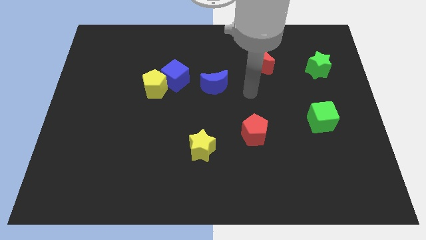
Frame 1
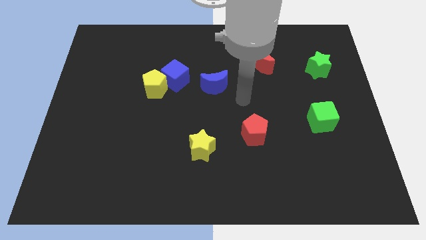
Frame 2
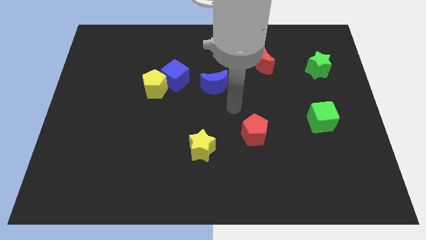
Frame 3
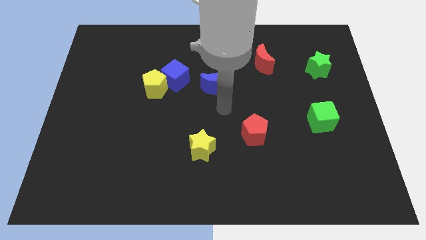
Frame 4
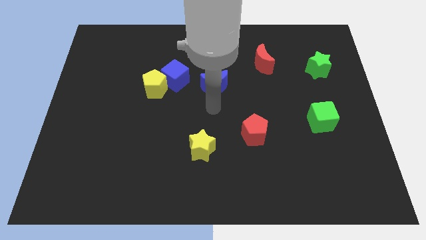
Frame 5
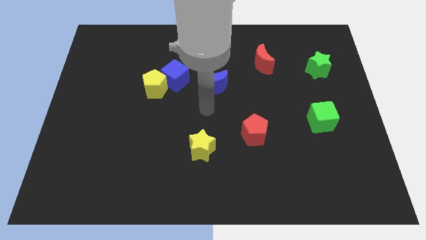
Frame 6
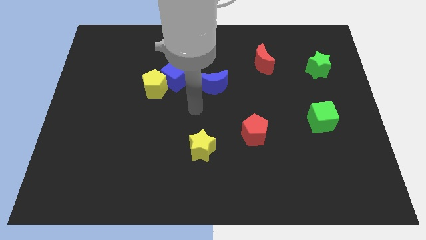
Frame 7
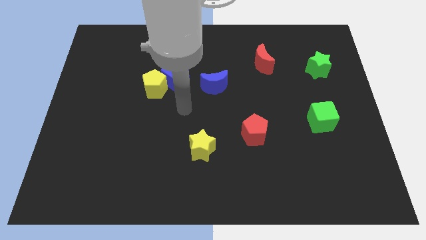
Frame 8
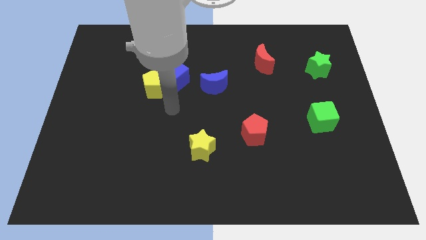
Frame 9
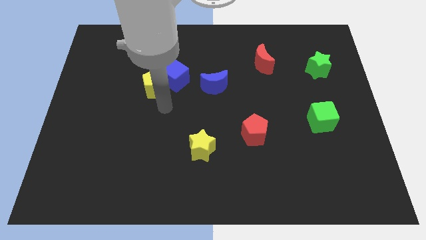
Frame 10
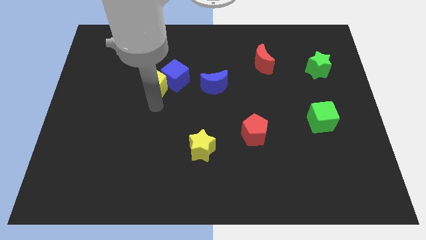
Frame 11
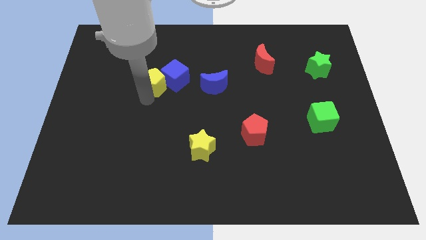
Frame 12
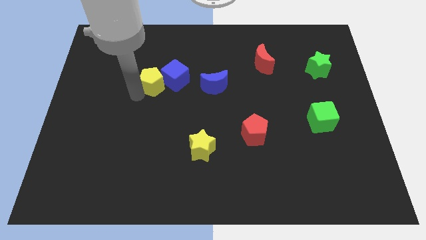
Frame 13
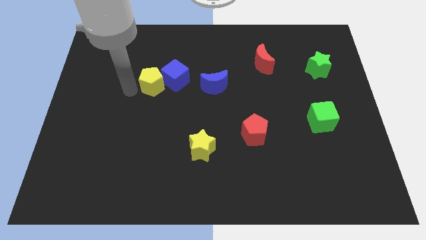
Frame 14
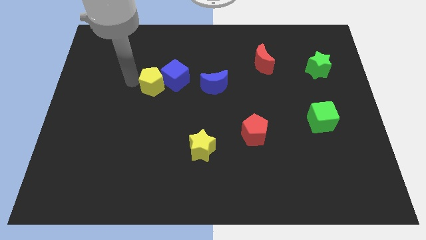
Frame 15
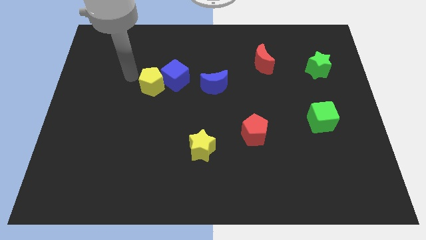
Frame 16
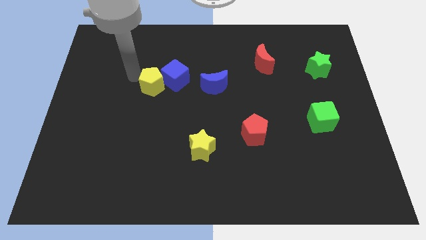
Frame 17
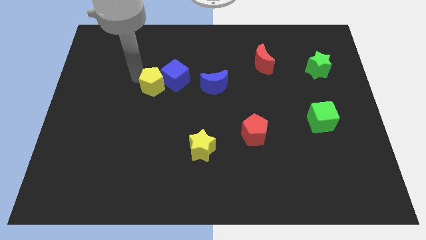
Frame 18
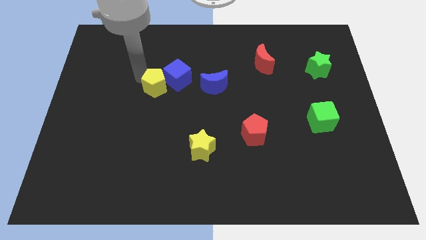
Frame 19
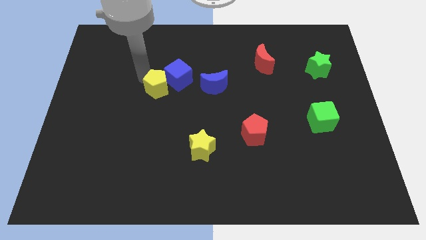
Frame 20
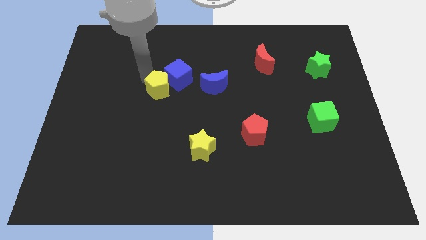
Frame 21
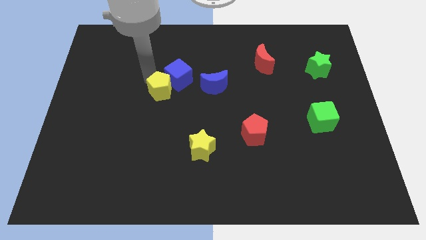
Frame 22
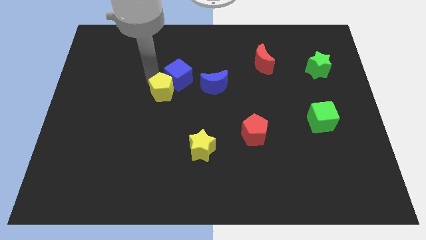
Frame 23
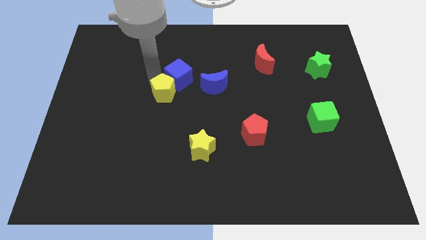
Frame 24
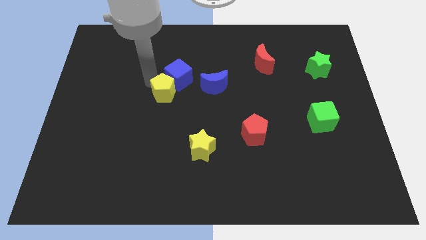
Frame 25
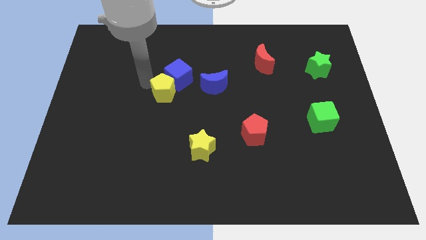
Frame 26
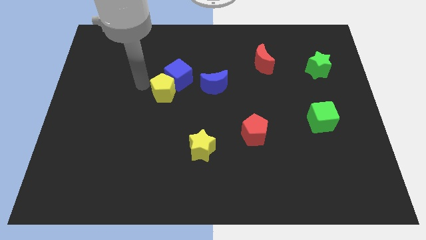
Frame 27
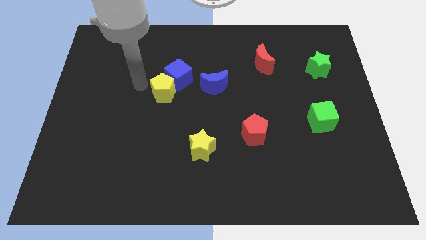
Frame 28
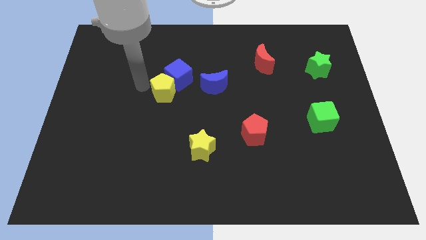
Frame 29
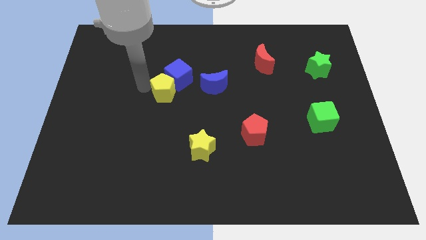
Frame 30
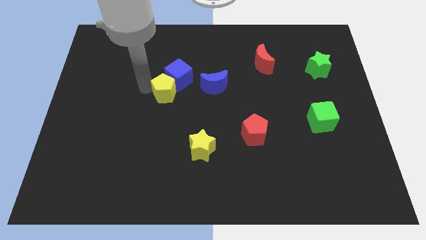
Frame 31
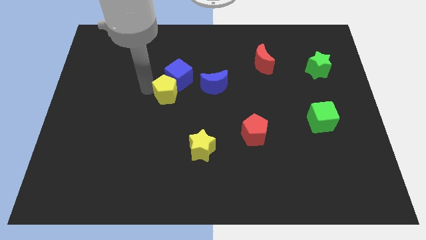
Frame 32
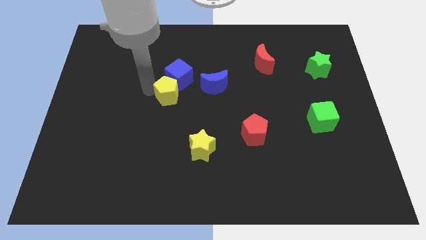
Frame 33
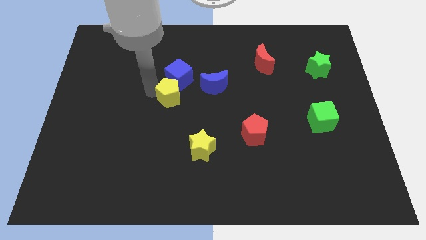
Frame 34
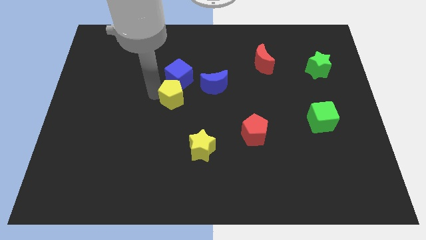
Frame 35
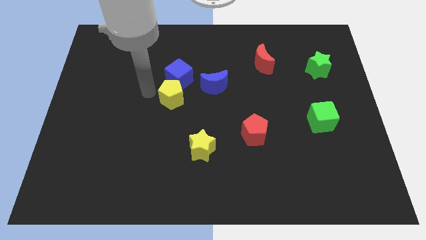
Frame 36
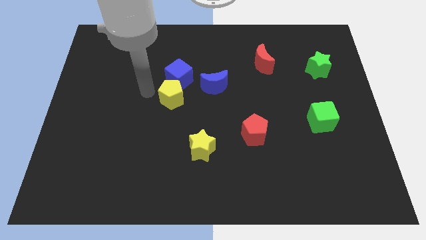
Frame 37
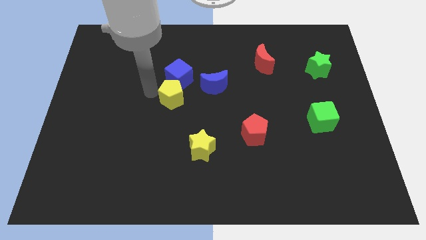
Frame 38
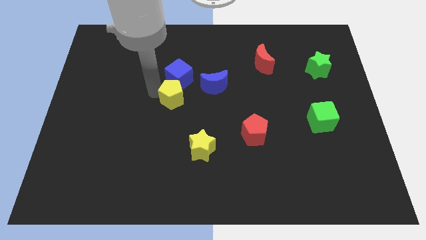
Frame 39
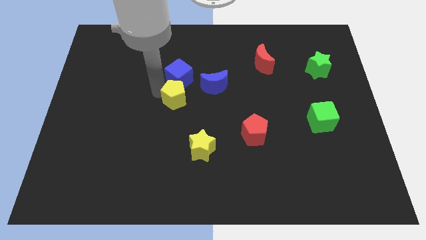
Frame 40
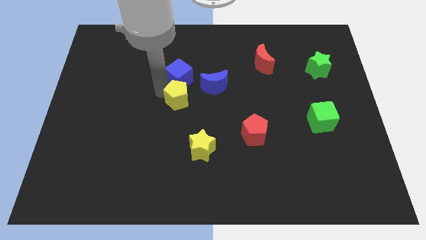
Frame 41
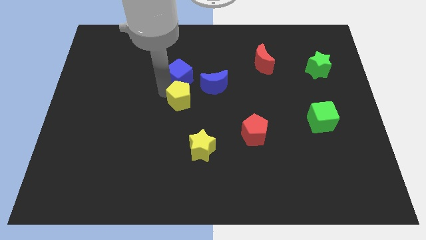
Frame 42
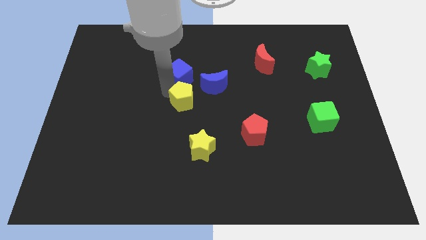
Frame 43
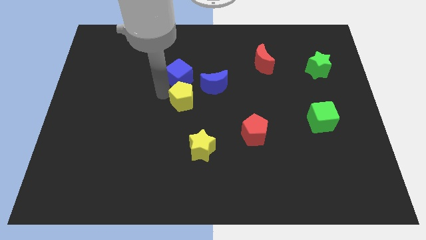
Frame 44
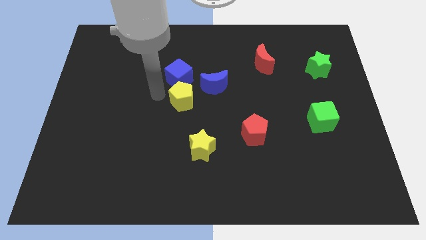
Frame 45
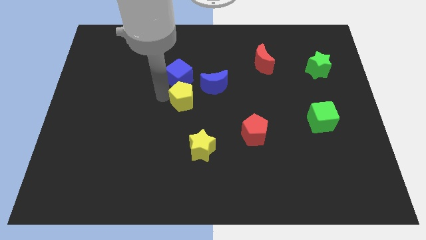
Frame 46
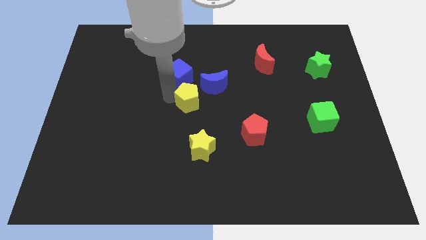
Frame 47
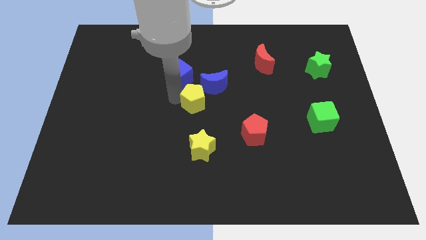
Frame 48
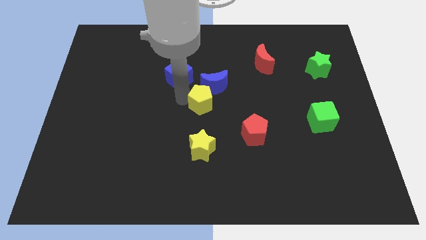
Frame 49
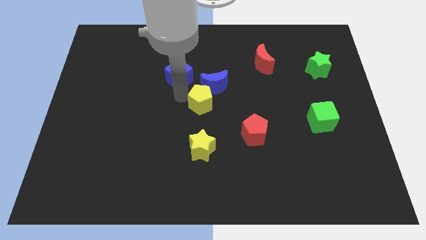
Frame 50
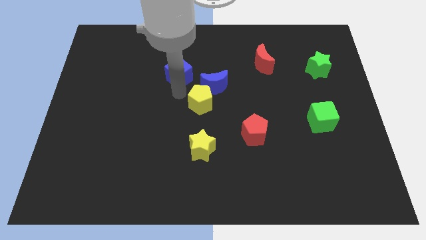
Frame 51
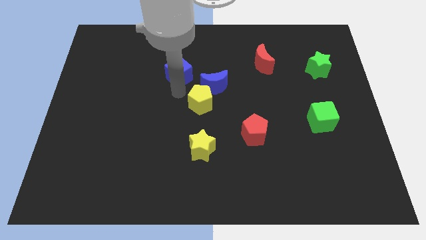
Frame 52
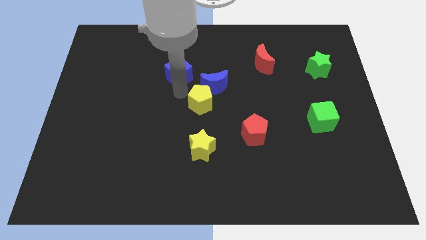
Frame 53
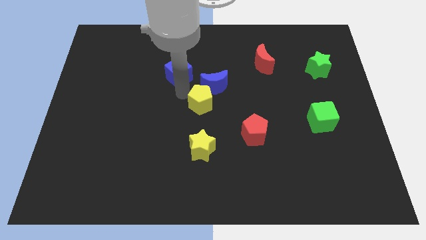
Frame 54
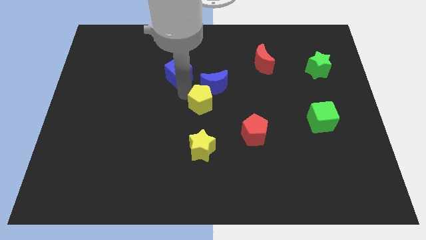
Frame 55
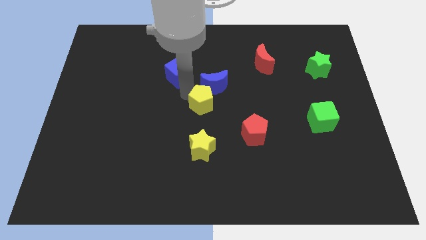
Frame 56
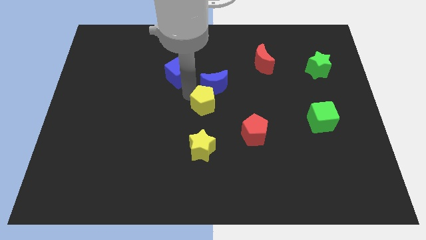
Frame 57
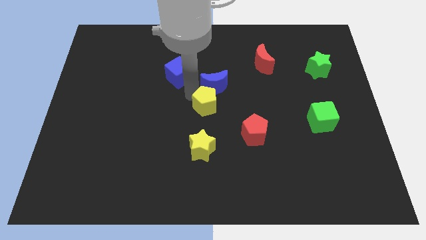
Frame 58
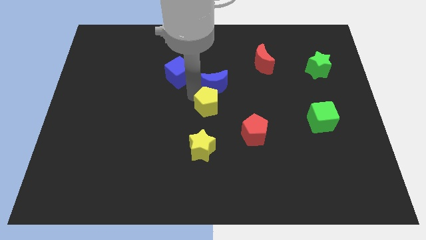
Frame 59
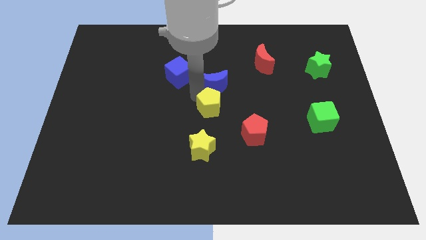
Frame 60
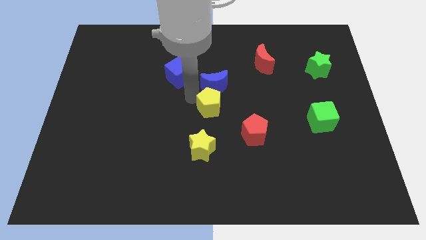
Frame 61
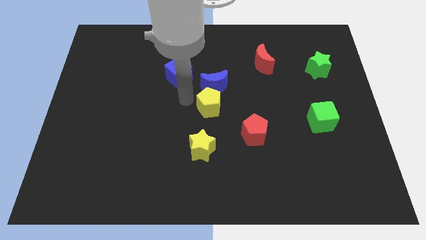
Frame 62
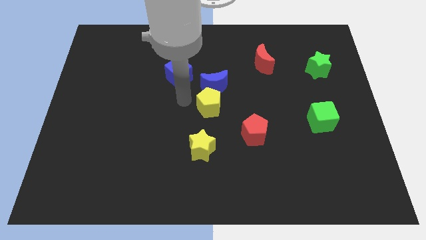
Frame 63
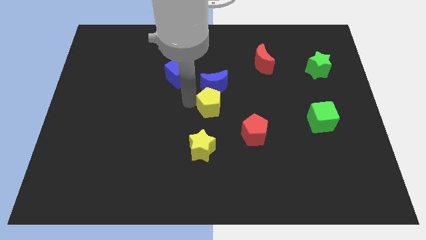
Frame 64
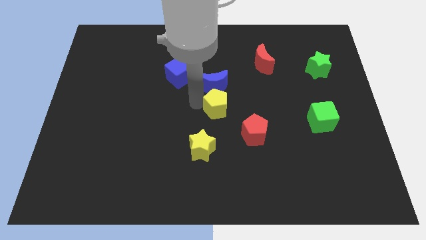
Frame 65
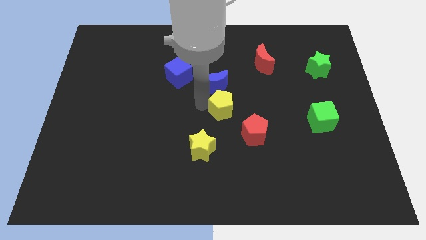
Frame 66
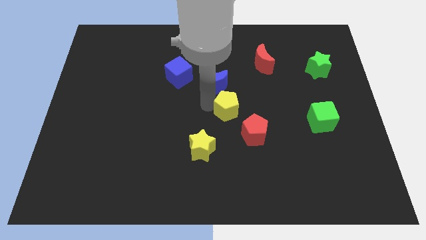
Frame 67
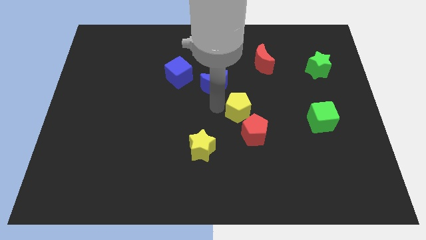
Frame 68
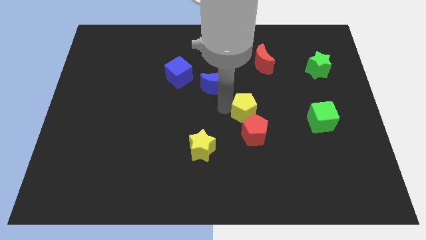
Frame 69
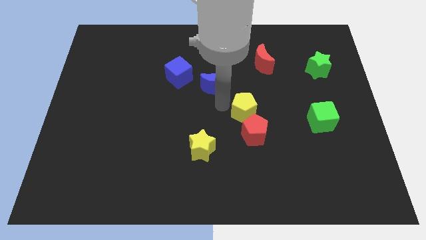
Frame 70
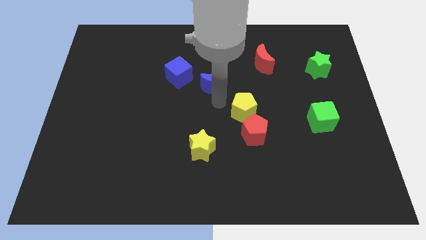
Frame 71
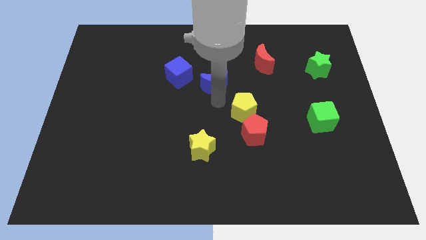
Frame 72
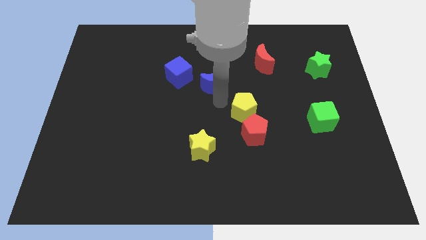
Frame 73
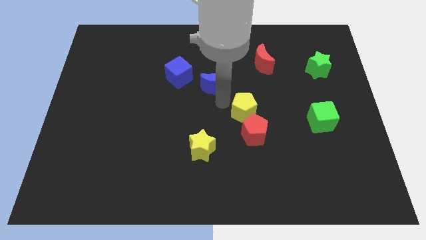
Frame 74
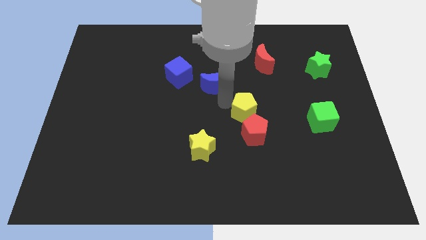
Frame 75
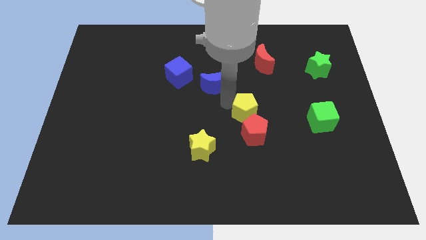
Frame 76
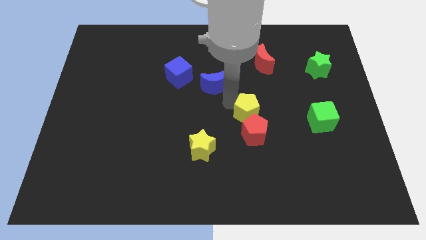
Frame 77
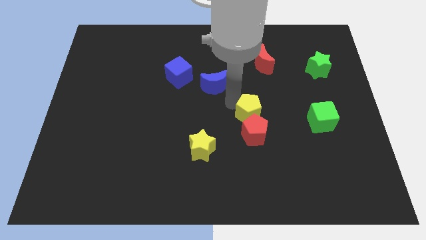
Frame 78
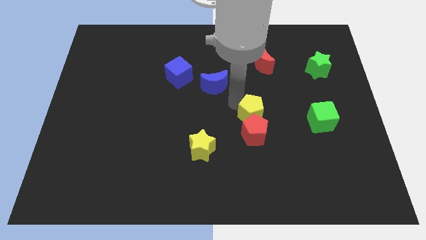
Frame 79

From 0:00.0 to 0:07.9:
put the yellow pentagon left of the green cube
